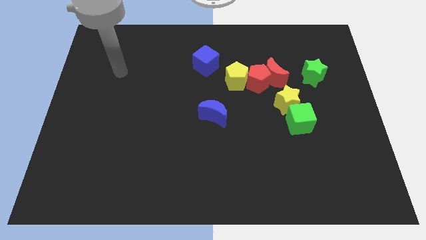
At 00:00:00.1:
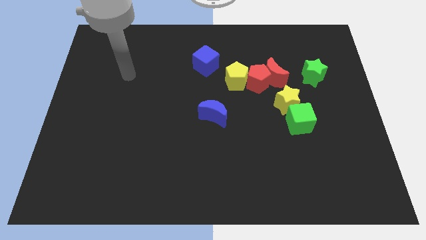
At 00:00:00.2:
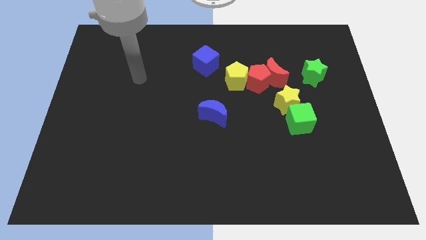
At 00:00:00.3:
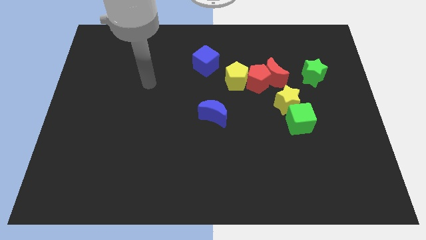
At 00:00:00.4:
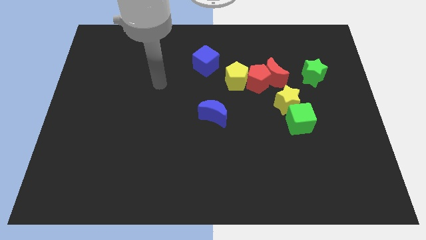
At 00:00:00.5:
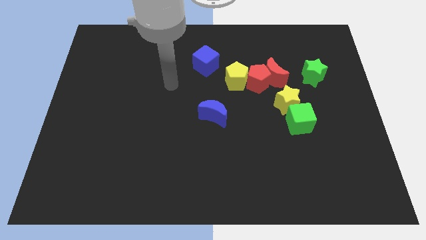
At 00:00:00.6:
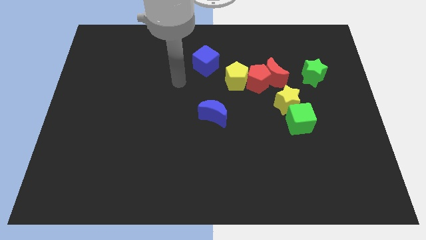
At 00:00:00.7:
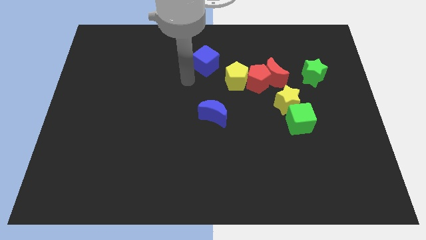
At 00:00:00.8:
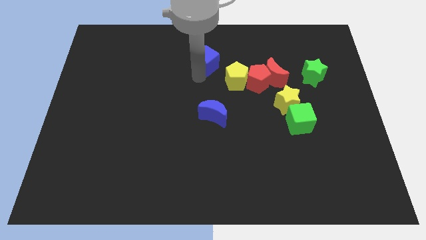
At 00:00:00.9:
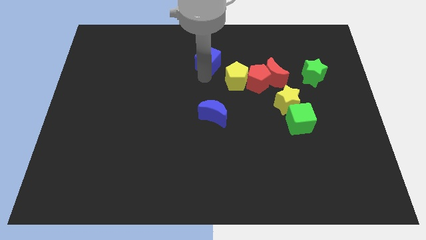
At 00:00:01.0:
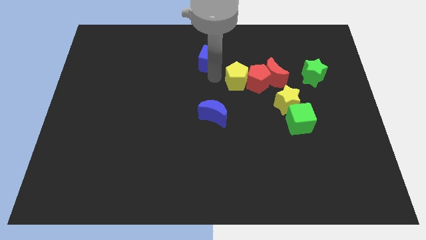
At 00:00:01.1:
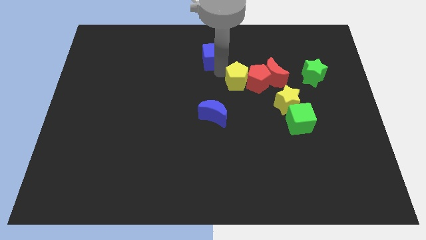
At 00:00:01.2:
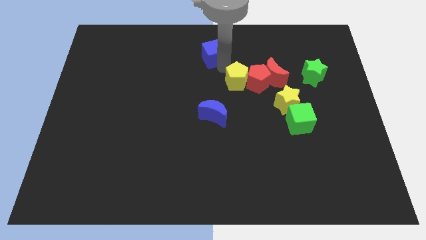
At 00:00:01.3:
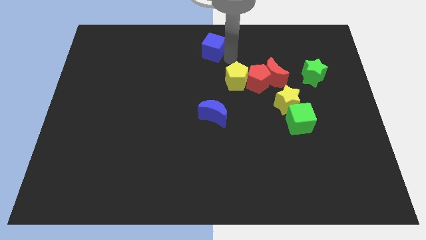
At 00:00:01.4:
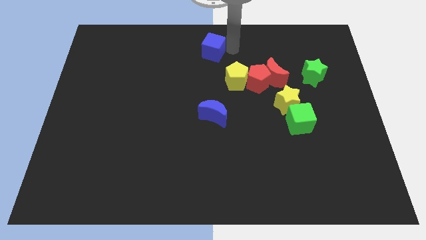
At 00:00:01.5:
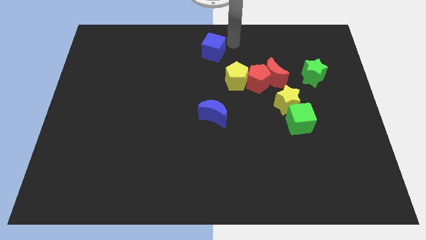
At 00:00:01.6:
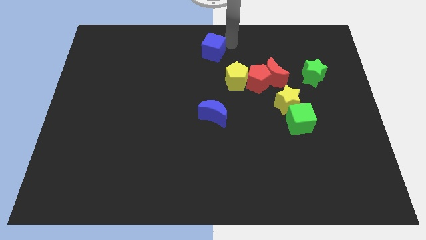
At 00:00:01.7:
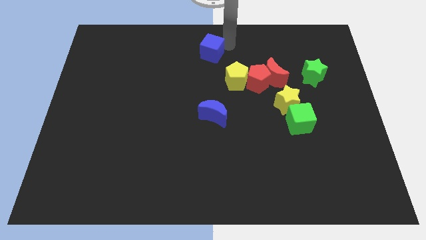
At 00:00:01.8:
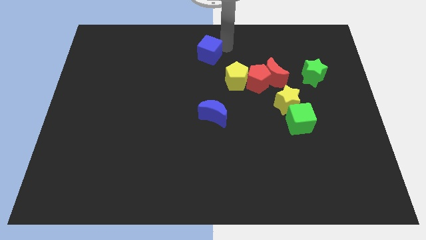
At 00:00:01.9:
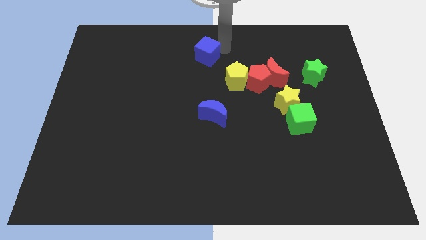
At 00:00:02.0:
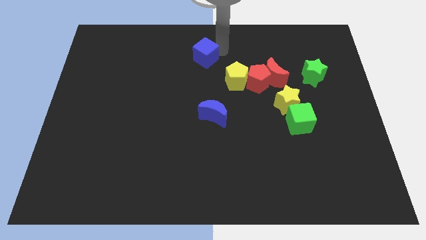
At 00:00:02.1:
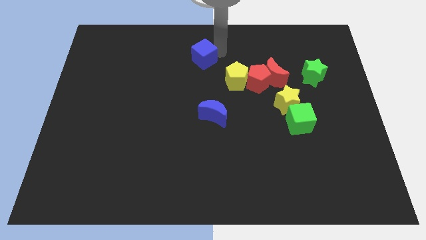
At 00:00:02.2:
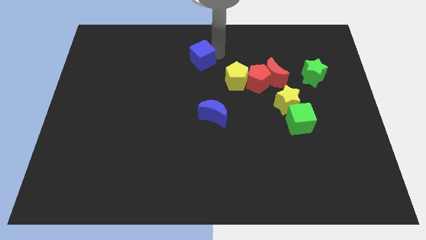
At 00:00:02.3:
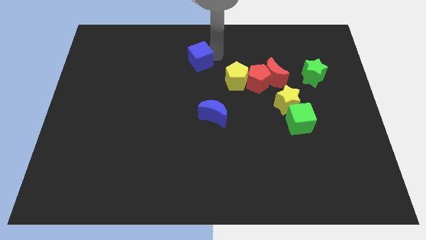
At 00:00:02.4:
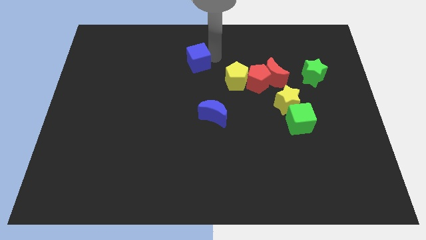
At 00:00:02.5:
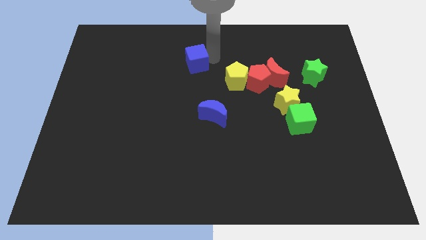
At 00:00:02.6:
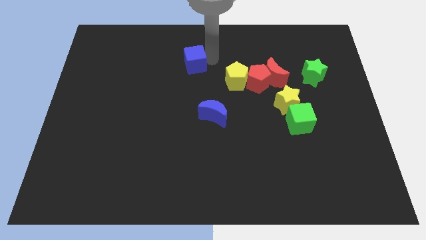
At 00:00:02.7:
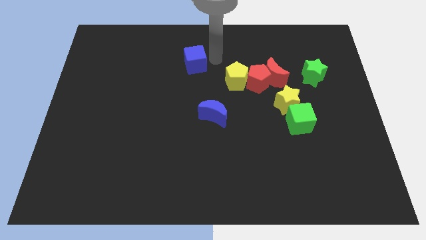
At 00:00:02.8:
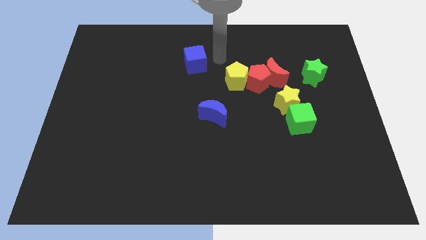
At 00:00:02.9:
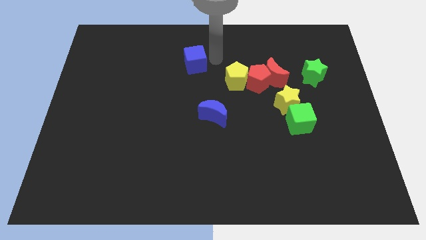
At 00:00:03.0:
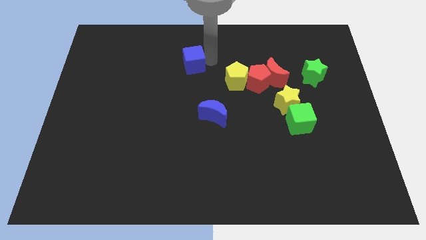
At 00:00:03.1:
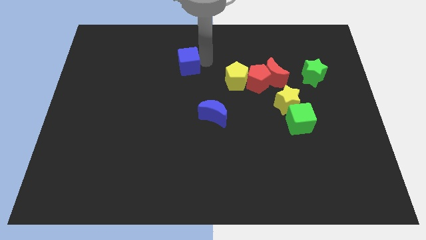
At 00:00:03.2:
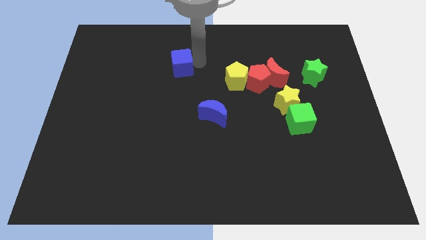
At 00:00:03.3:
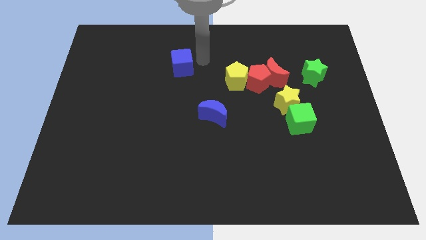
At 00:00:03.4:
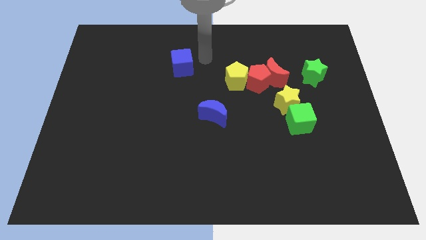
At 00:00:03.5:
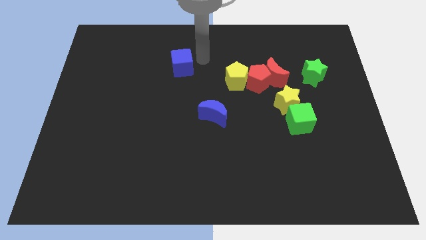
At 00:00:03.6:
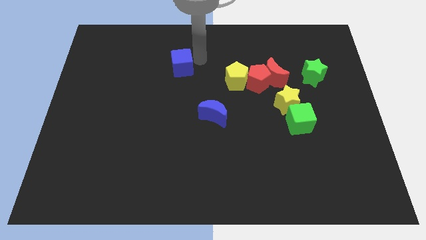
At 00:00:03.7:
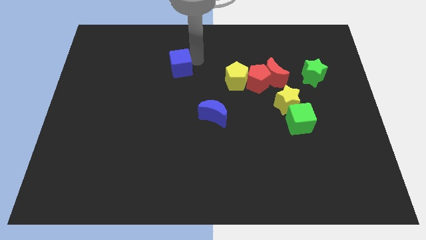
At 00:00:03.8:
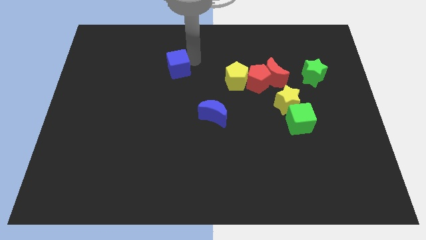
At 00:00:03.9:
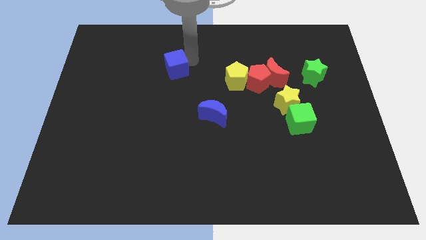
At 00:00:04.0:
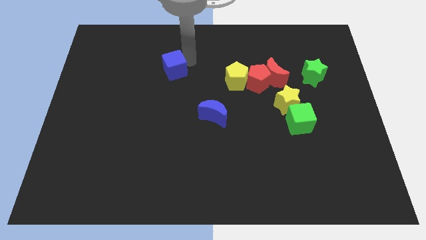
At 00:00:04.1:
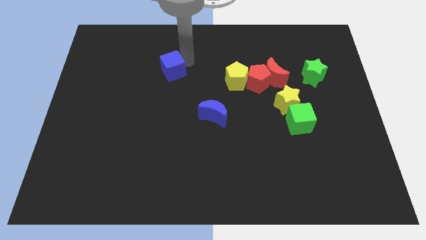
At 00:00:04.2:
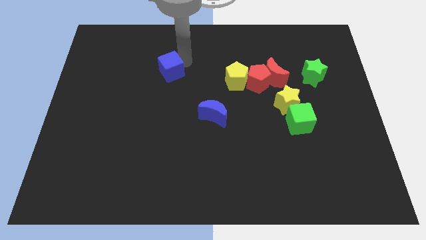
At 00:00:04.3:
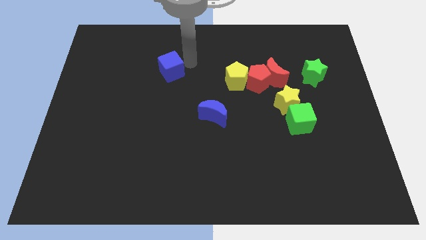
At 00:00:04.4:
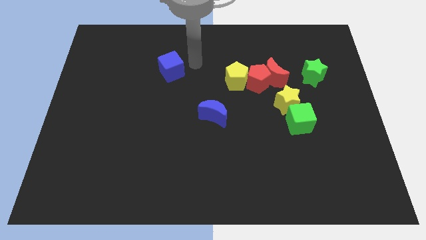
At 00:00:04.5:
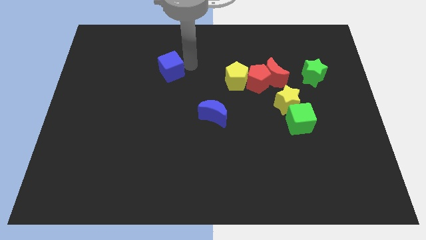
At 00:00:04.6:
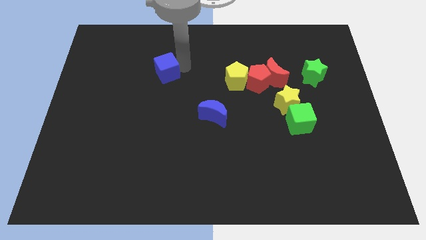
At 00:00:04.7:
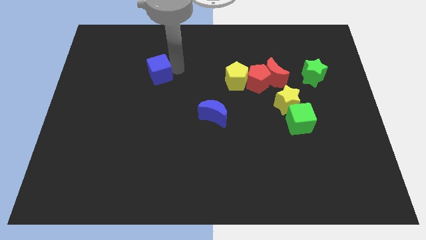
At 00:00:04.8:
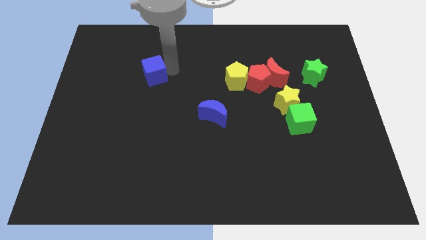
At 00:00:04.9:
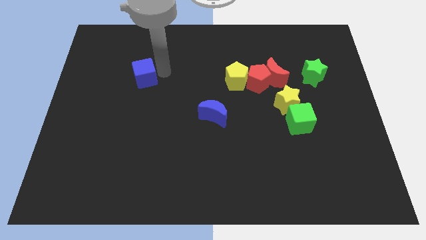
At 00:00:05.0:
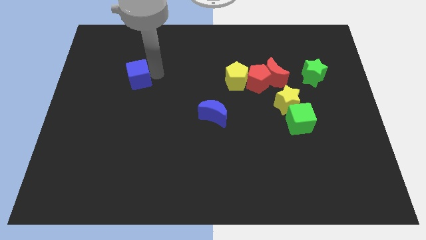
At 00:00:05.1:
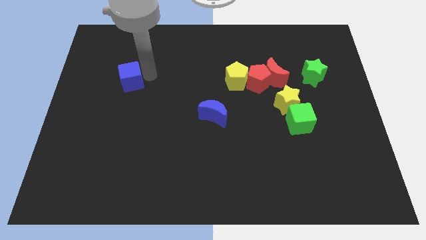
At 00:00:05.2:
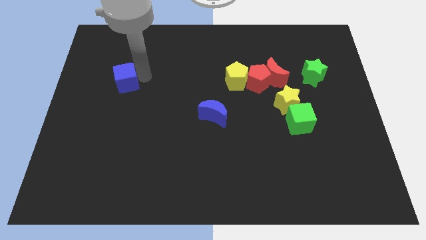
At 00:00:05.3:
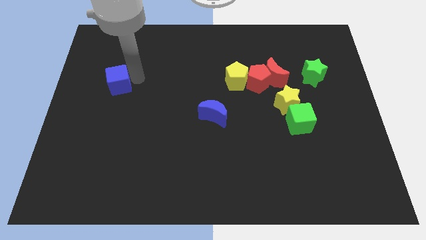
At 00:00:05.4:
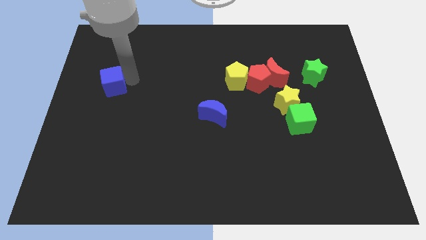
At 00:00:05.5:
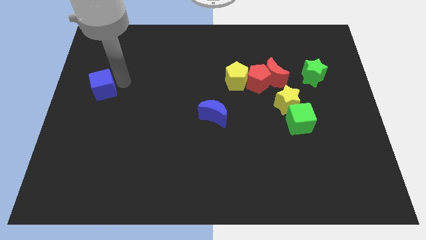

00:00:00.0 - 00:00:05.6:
push the blue cube to the center left
